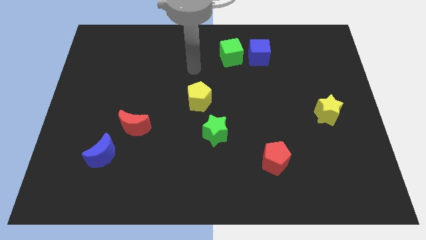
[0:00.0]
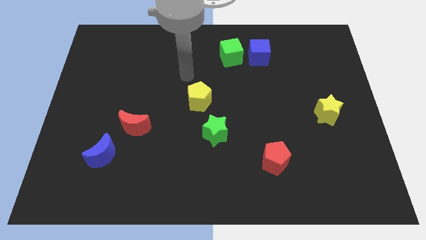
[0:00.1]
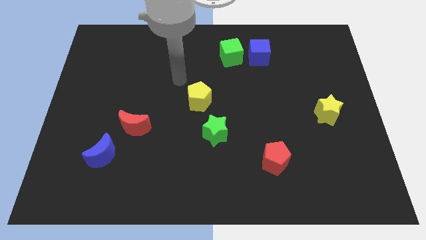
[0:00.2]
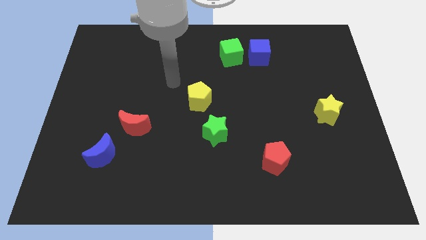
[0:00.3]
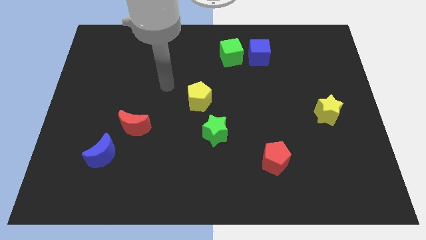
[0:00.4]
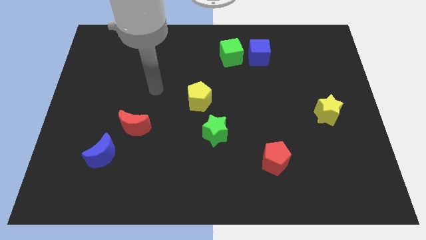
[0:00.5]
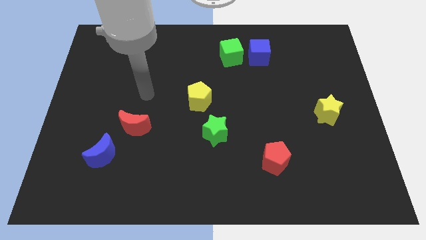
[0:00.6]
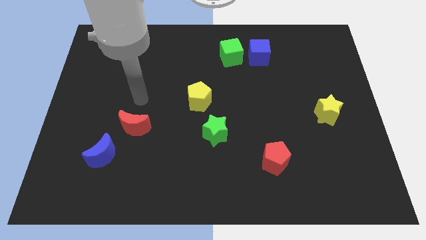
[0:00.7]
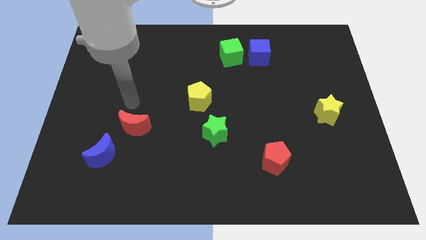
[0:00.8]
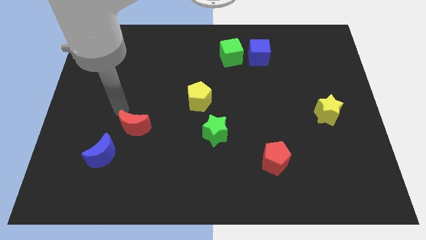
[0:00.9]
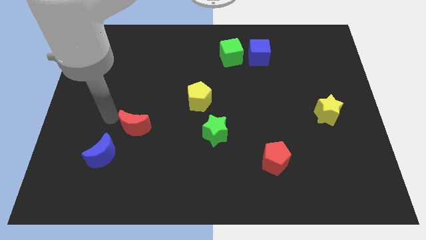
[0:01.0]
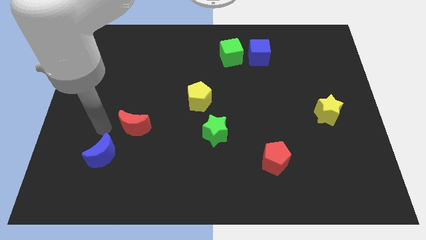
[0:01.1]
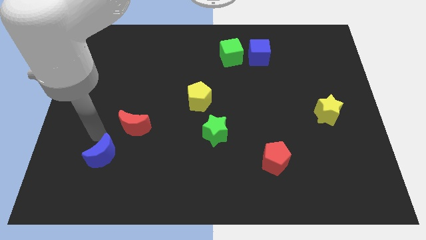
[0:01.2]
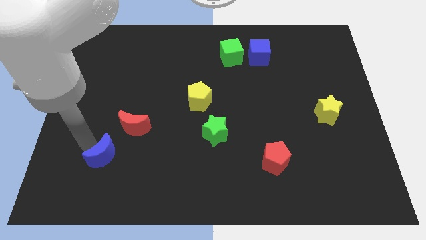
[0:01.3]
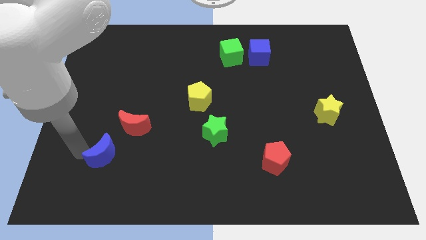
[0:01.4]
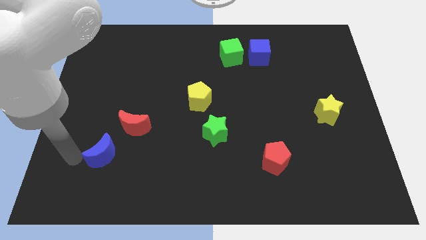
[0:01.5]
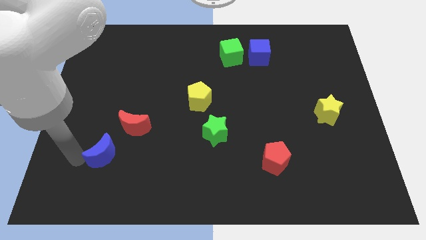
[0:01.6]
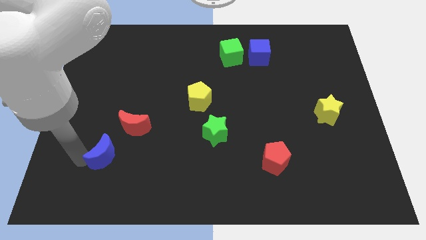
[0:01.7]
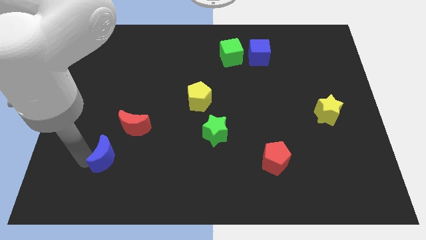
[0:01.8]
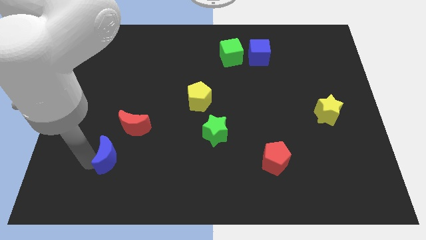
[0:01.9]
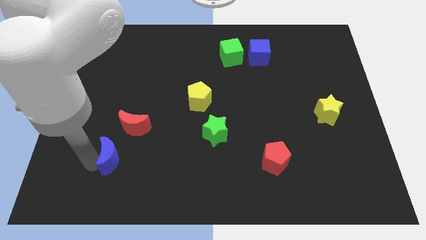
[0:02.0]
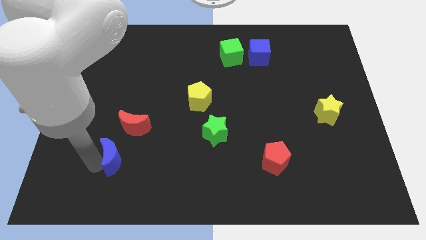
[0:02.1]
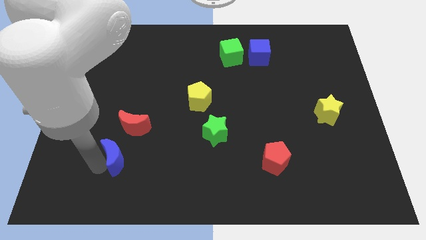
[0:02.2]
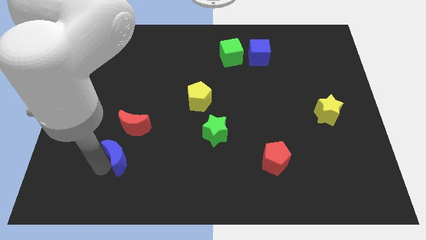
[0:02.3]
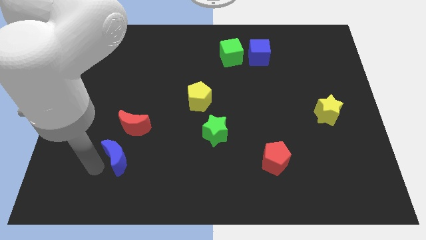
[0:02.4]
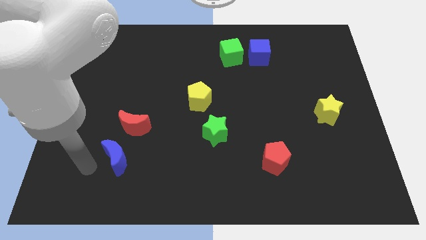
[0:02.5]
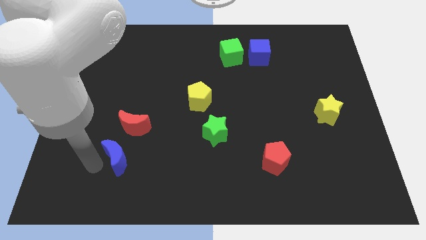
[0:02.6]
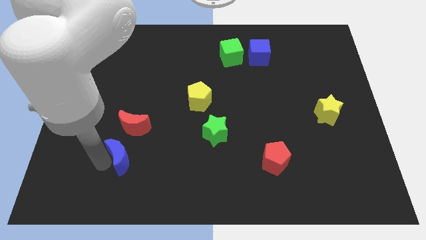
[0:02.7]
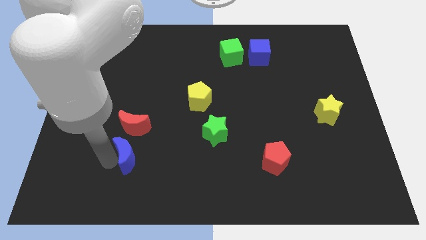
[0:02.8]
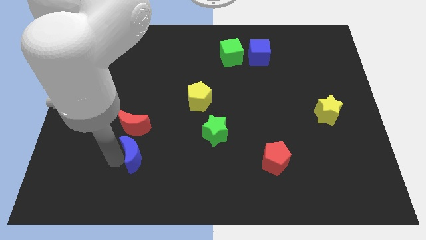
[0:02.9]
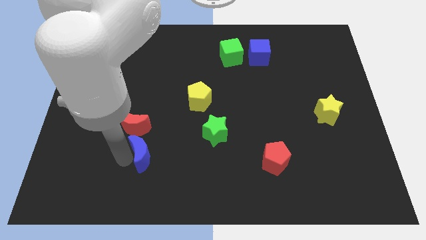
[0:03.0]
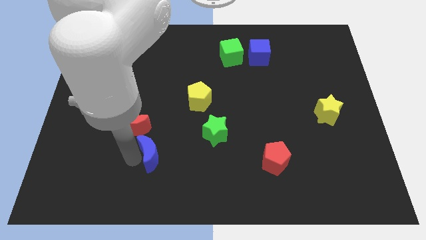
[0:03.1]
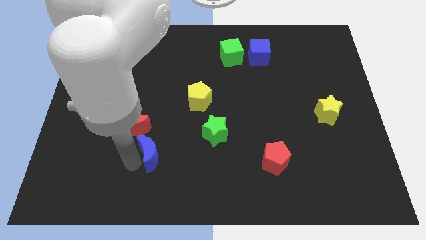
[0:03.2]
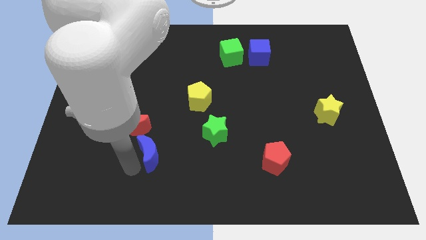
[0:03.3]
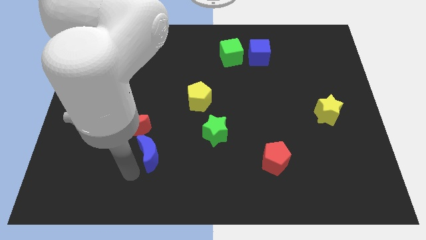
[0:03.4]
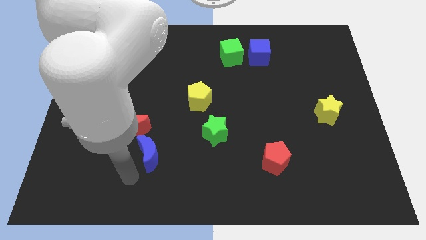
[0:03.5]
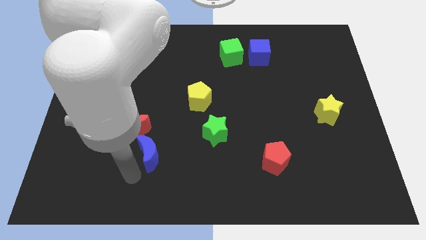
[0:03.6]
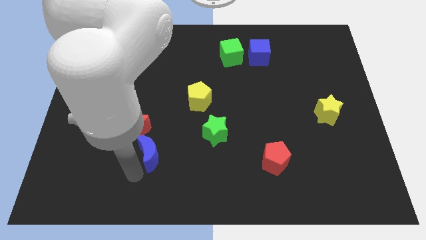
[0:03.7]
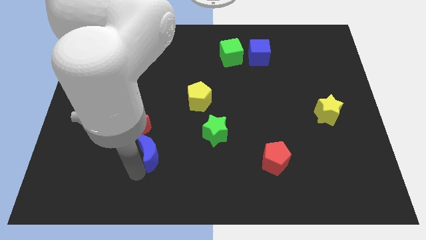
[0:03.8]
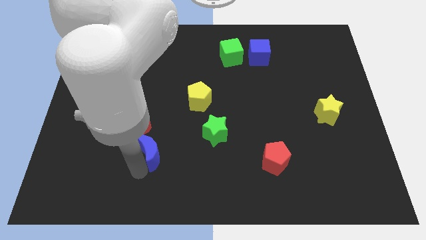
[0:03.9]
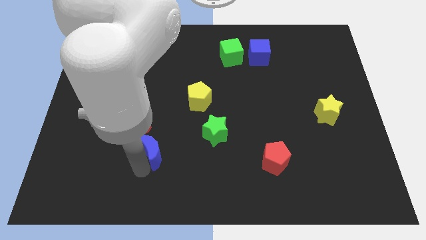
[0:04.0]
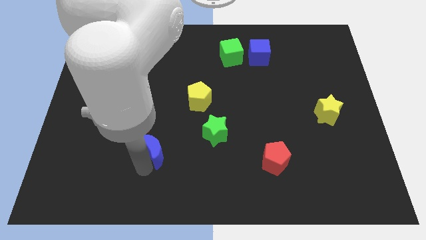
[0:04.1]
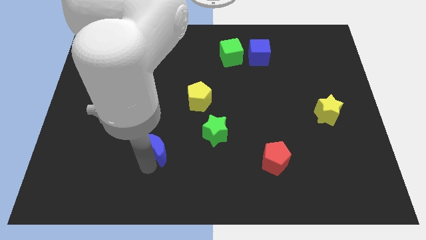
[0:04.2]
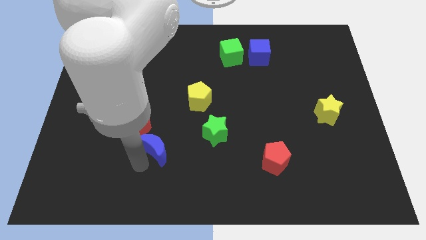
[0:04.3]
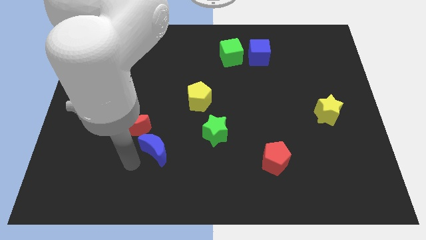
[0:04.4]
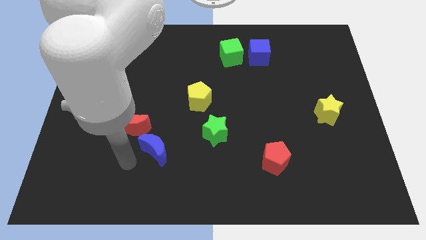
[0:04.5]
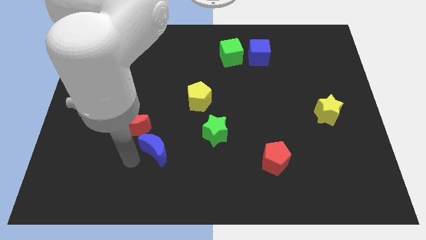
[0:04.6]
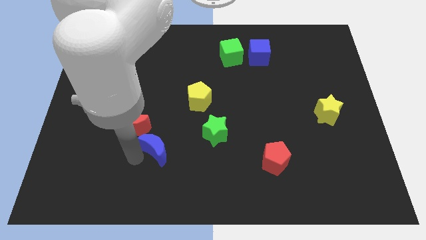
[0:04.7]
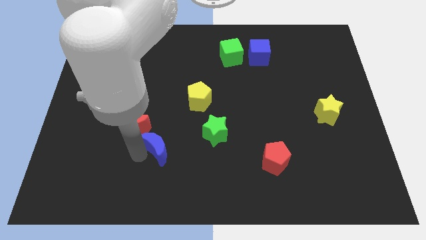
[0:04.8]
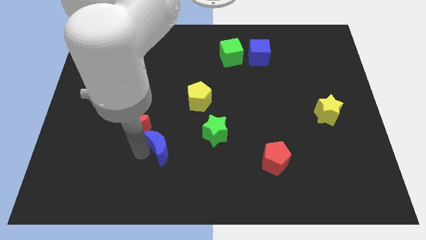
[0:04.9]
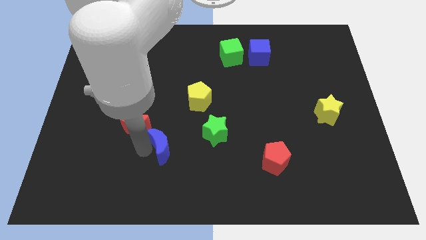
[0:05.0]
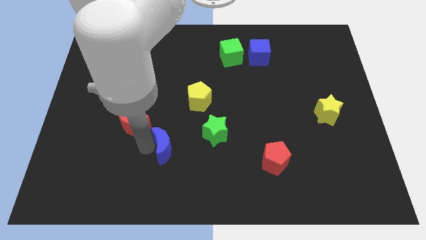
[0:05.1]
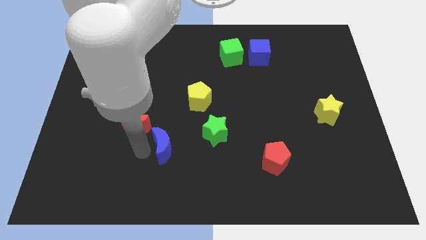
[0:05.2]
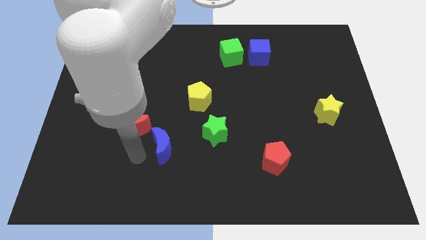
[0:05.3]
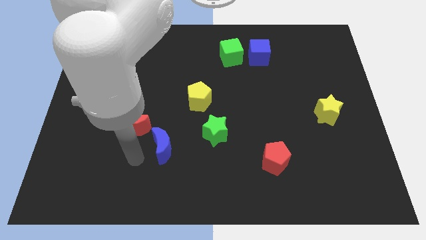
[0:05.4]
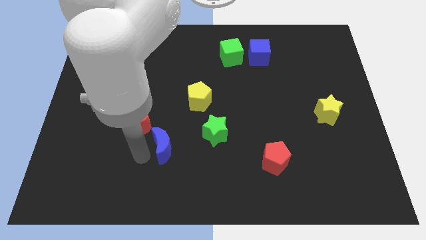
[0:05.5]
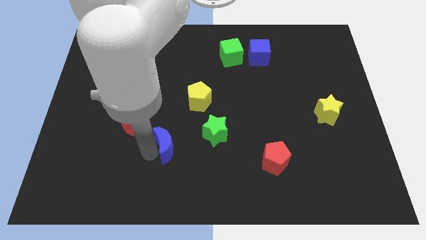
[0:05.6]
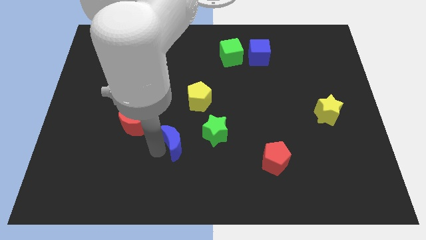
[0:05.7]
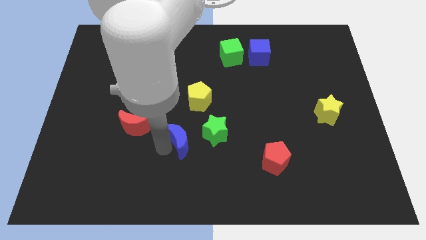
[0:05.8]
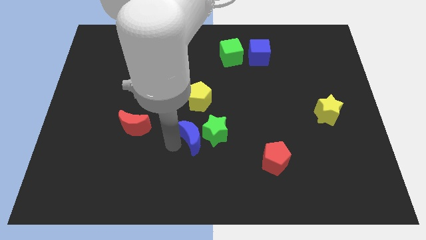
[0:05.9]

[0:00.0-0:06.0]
move the blue moon towards the green star

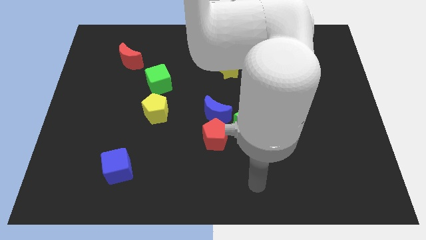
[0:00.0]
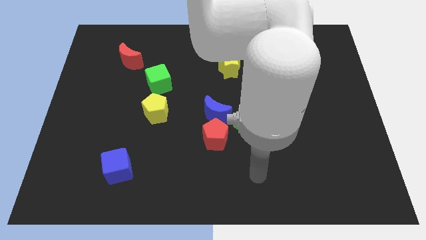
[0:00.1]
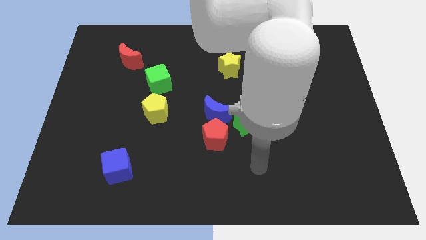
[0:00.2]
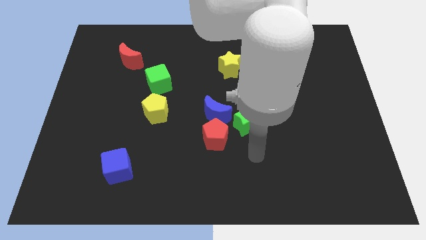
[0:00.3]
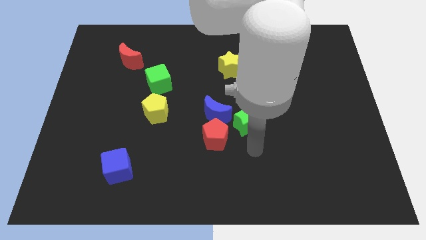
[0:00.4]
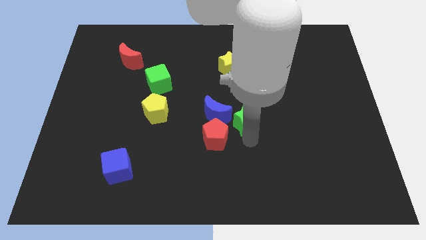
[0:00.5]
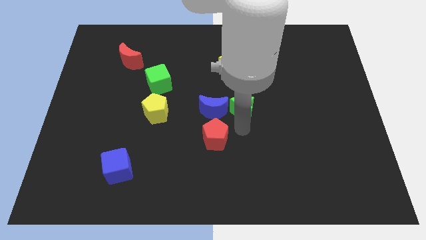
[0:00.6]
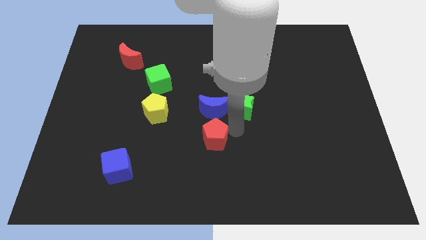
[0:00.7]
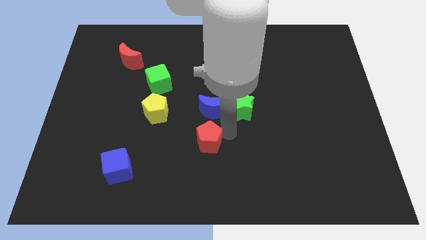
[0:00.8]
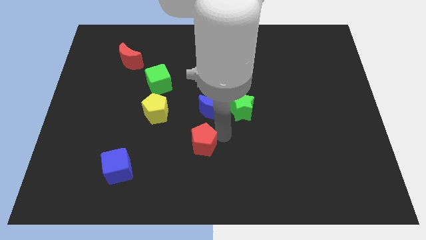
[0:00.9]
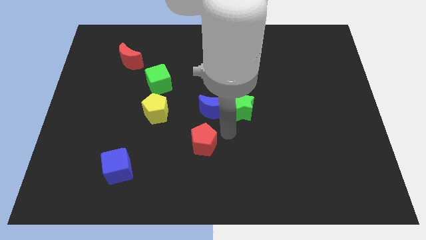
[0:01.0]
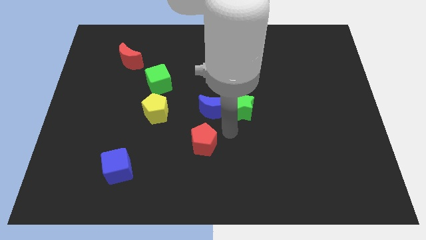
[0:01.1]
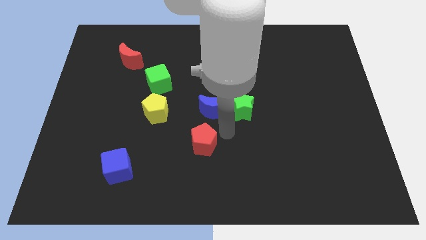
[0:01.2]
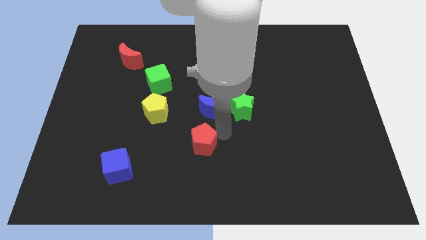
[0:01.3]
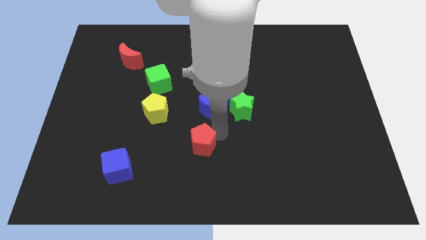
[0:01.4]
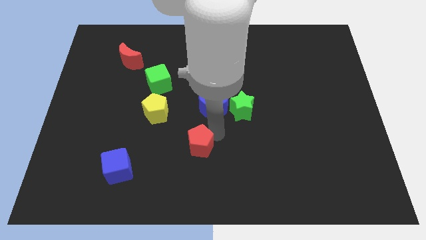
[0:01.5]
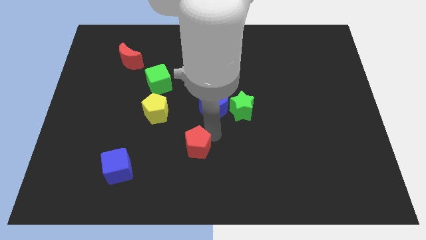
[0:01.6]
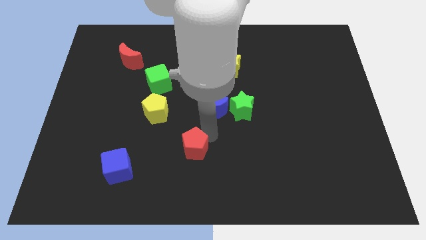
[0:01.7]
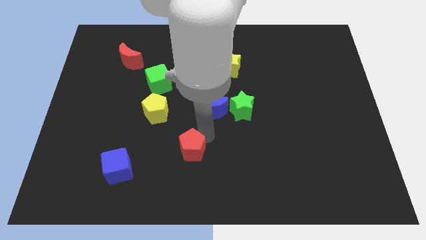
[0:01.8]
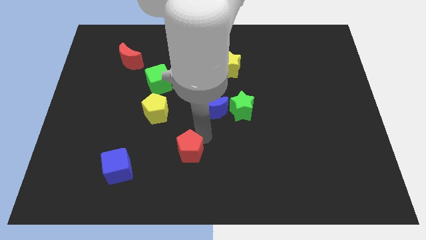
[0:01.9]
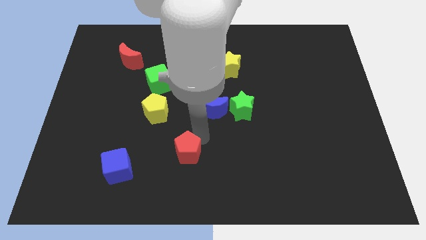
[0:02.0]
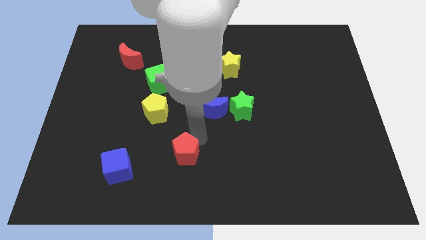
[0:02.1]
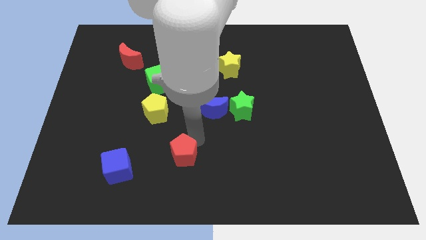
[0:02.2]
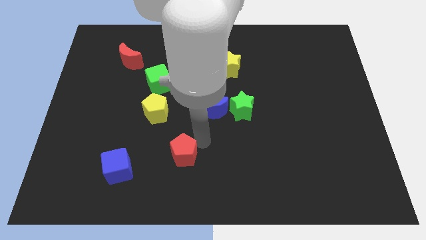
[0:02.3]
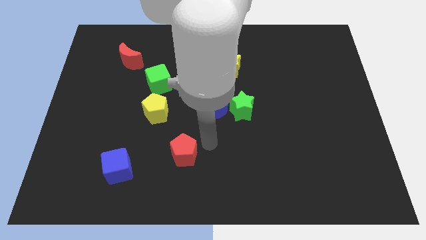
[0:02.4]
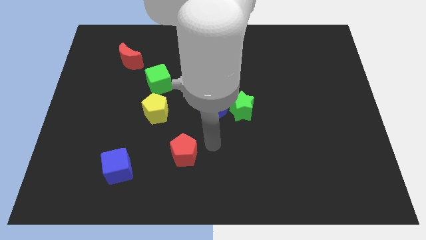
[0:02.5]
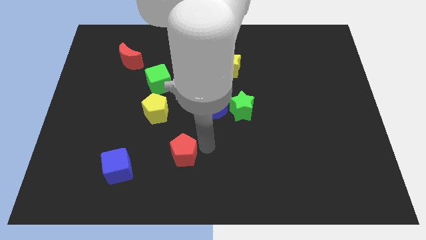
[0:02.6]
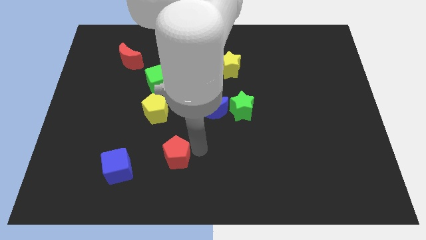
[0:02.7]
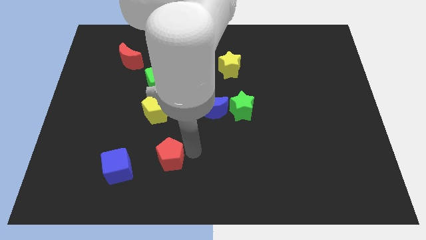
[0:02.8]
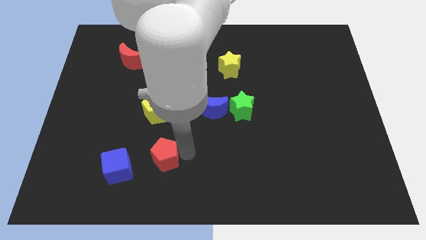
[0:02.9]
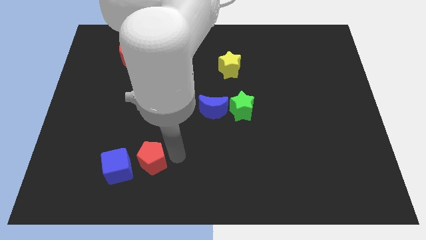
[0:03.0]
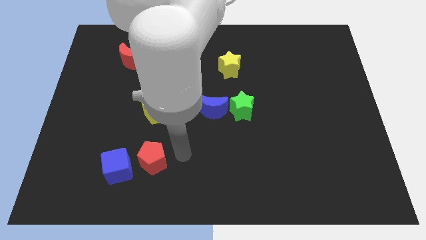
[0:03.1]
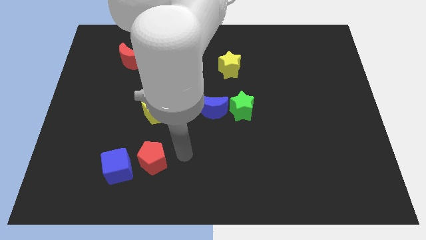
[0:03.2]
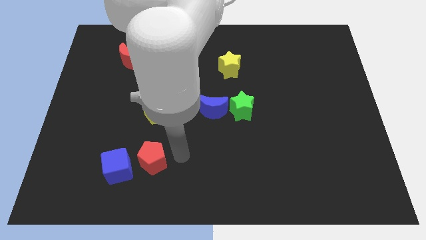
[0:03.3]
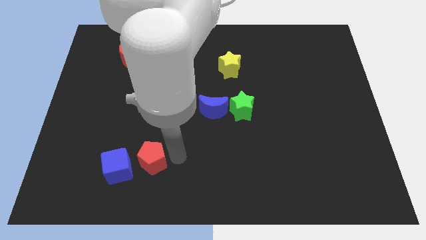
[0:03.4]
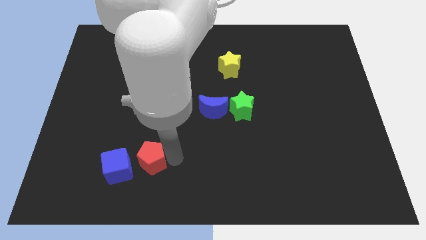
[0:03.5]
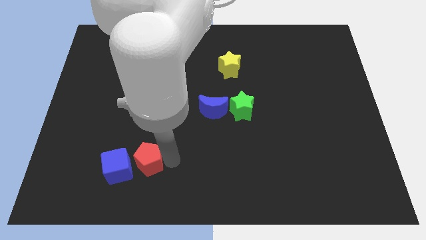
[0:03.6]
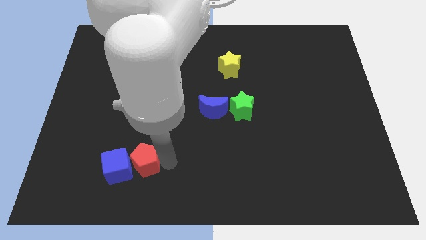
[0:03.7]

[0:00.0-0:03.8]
slide the red pentagon towards the blue cube
